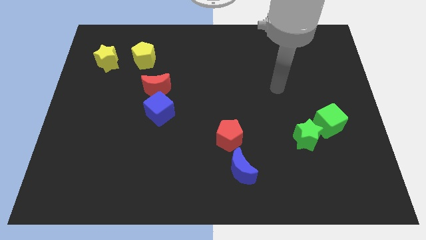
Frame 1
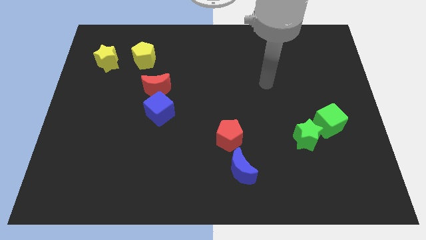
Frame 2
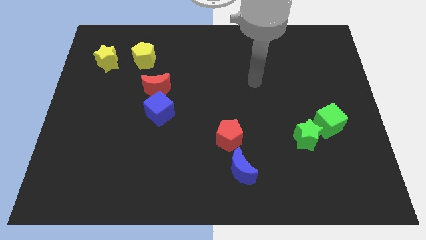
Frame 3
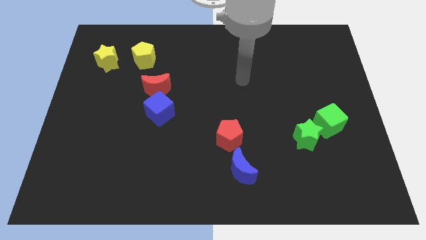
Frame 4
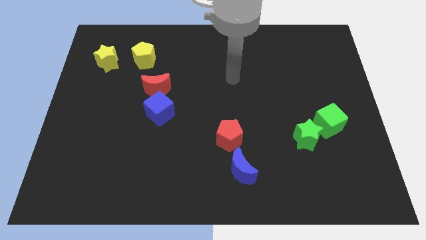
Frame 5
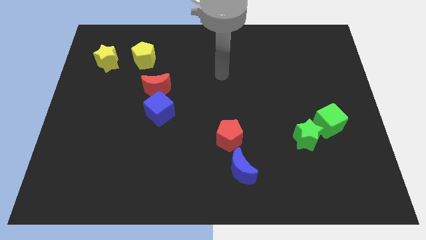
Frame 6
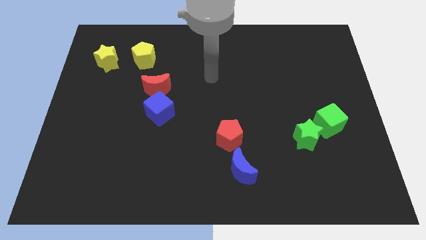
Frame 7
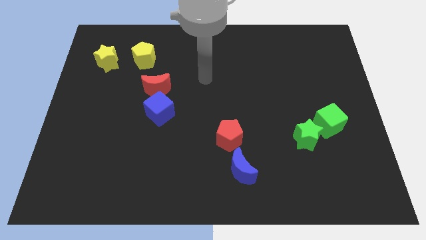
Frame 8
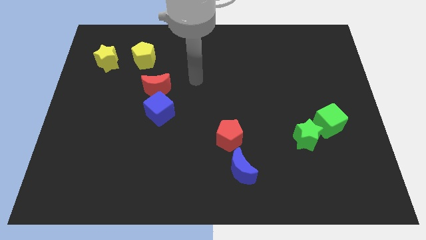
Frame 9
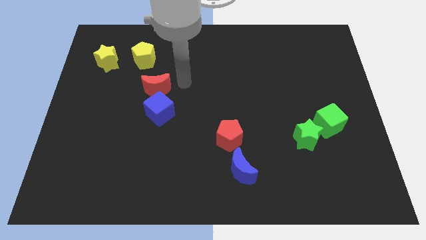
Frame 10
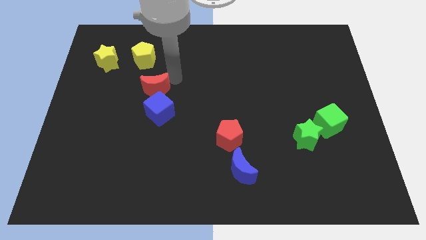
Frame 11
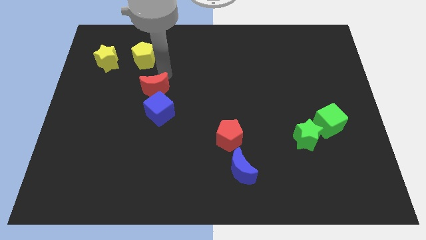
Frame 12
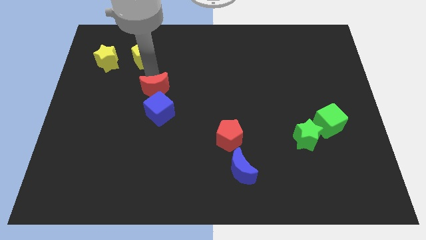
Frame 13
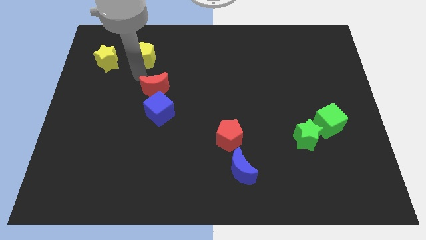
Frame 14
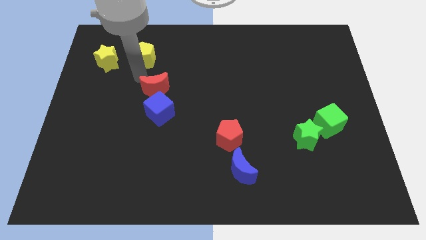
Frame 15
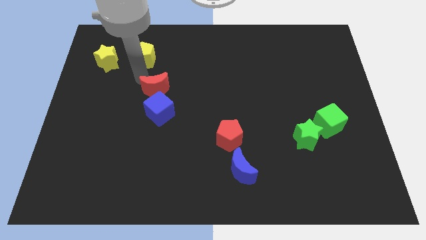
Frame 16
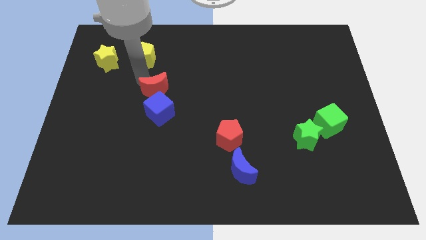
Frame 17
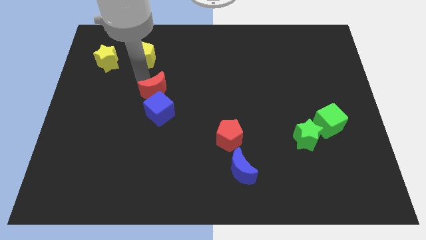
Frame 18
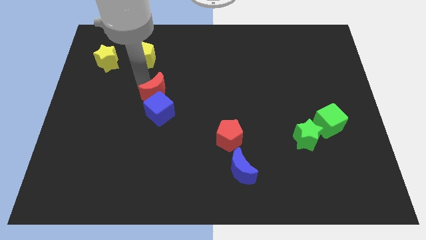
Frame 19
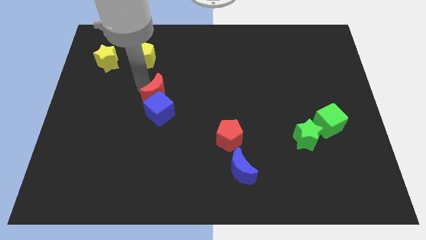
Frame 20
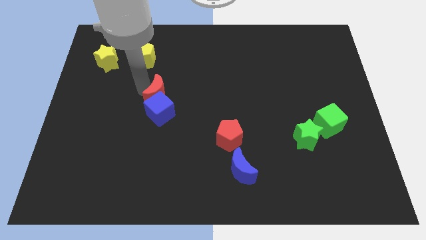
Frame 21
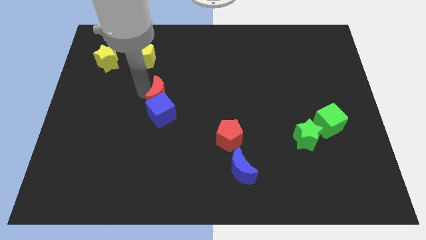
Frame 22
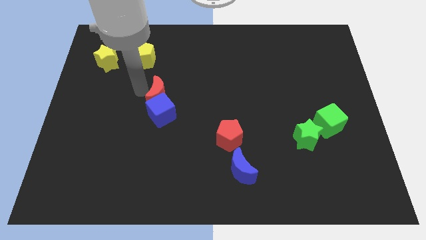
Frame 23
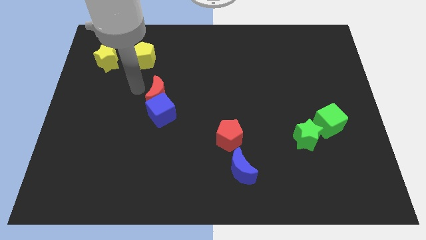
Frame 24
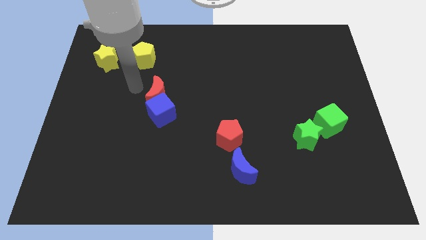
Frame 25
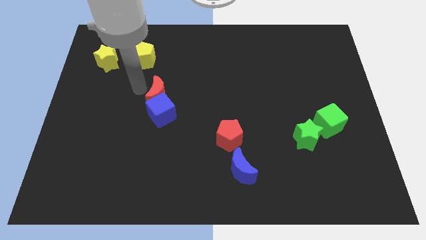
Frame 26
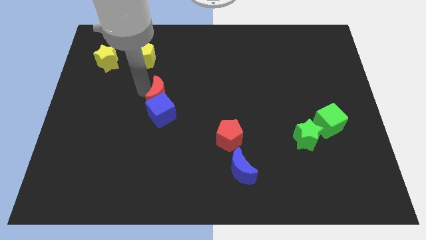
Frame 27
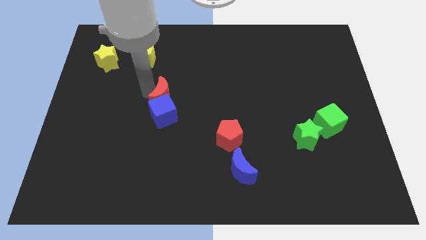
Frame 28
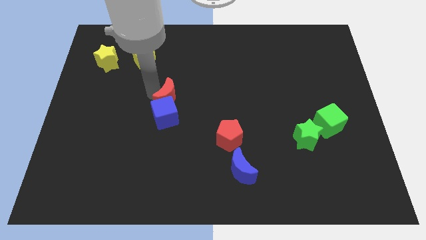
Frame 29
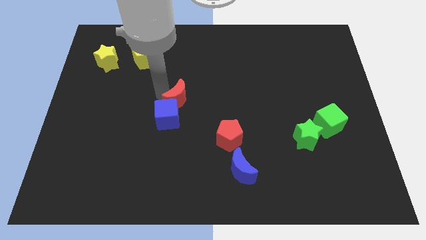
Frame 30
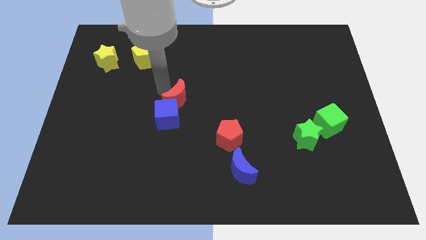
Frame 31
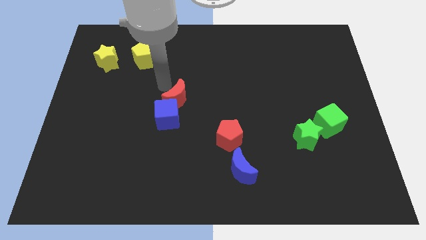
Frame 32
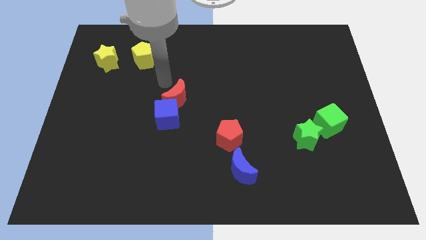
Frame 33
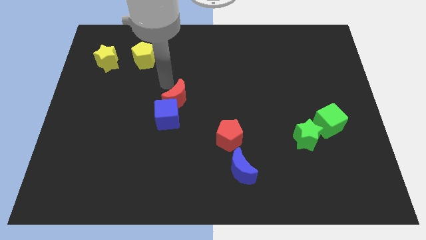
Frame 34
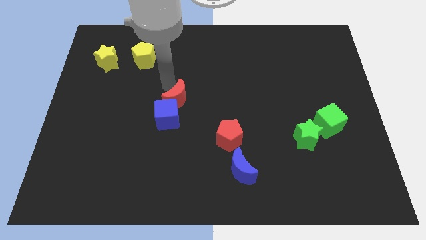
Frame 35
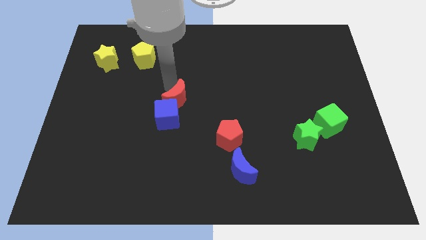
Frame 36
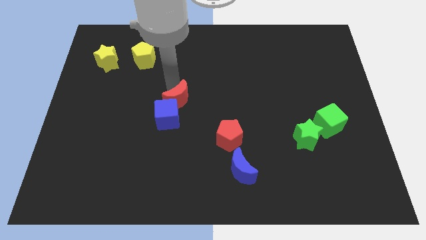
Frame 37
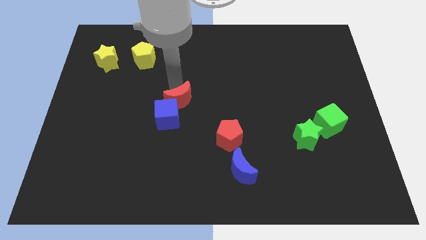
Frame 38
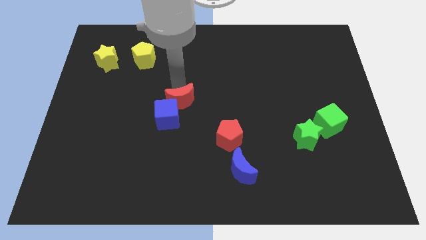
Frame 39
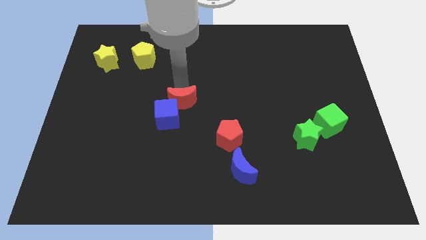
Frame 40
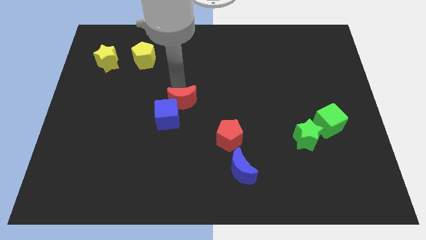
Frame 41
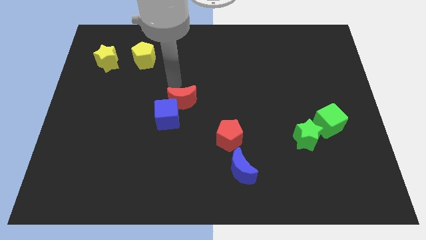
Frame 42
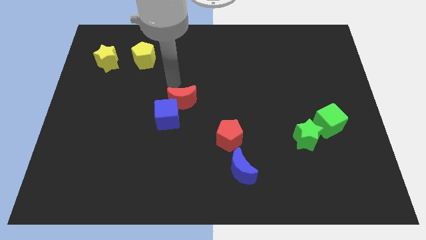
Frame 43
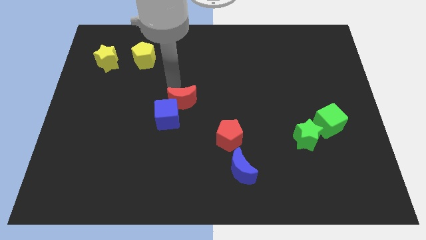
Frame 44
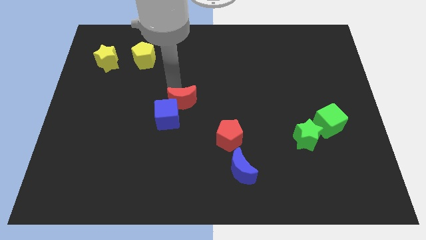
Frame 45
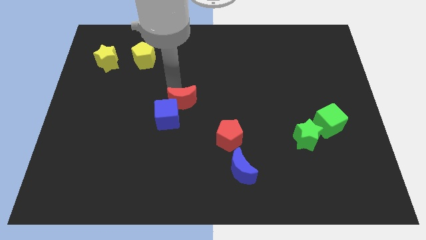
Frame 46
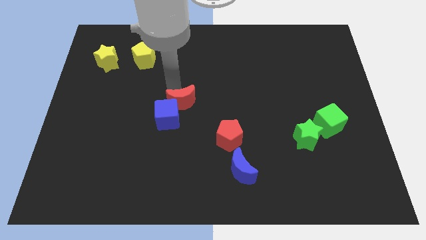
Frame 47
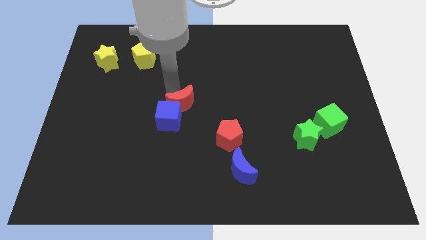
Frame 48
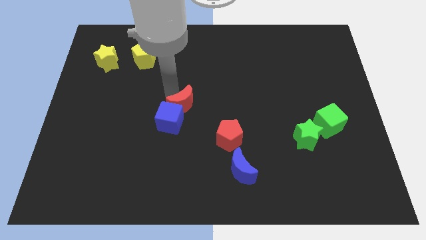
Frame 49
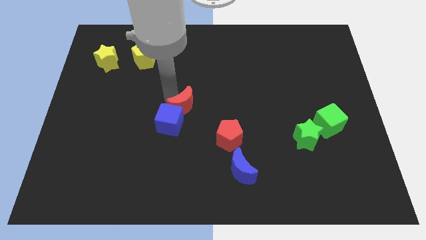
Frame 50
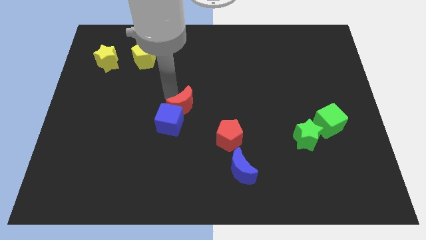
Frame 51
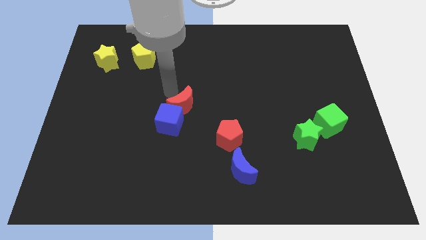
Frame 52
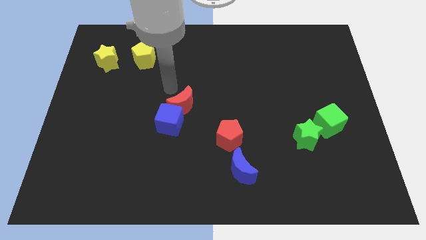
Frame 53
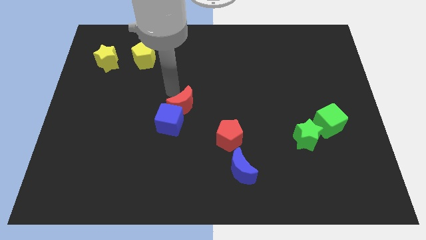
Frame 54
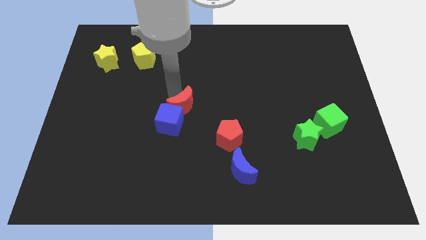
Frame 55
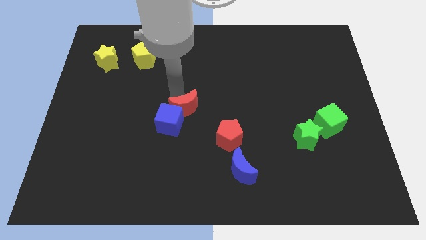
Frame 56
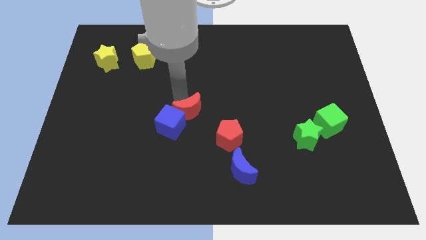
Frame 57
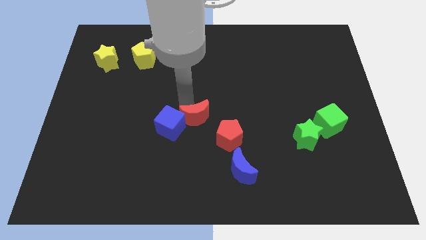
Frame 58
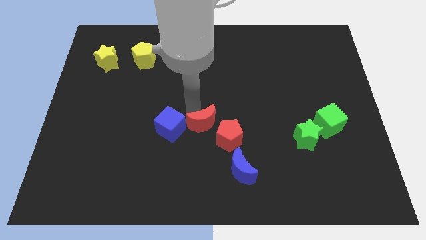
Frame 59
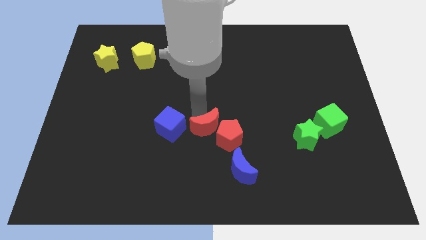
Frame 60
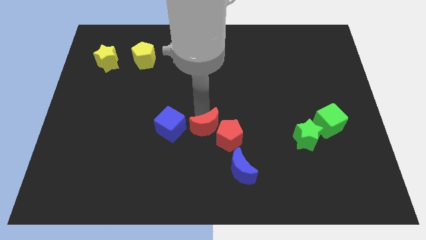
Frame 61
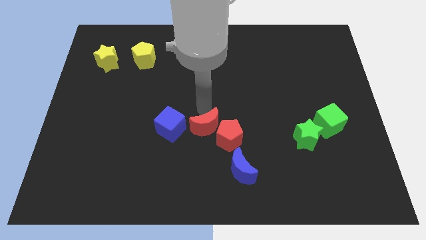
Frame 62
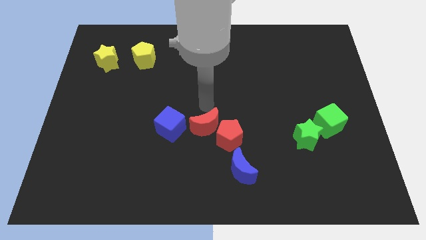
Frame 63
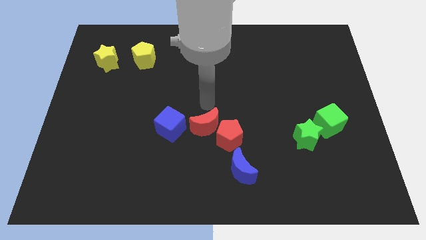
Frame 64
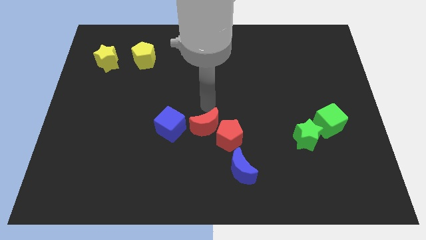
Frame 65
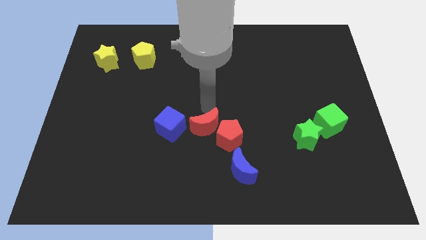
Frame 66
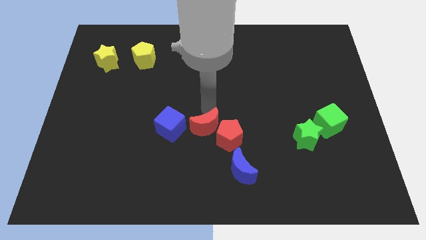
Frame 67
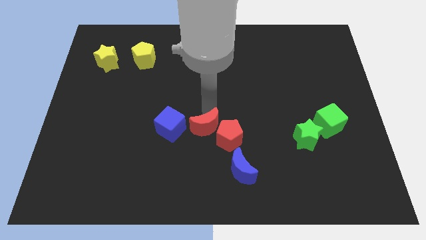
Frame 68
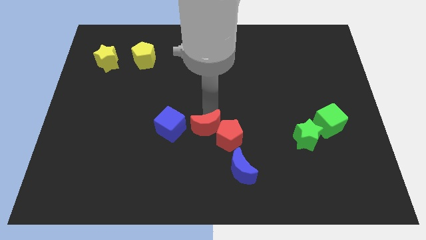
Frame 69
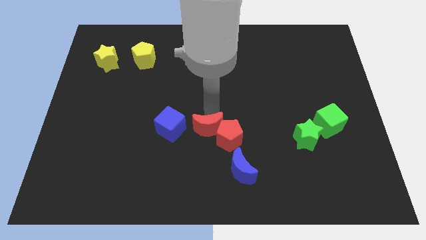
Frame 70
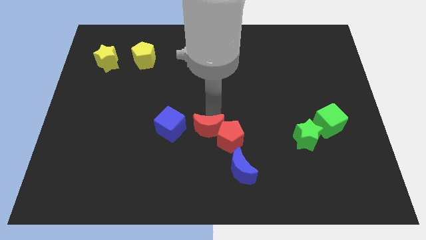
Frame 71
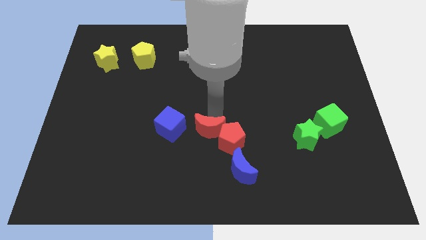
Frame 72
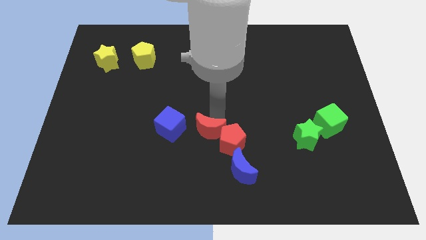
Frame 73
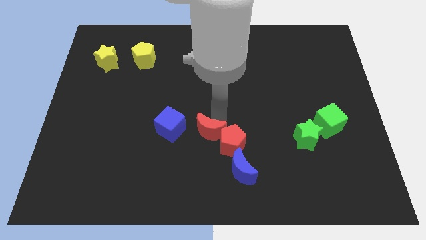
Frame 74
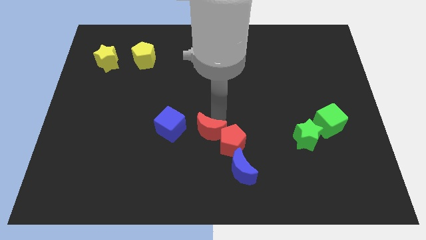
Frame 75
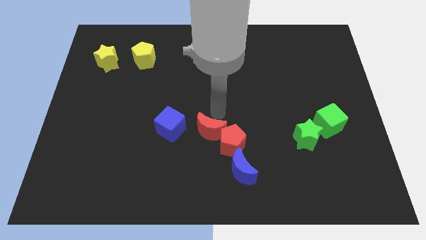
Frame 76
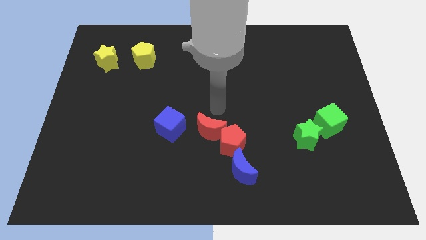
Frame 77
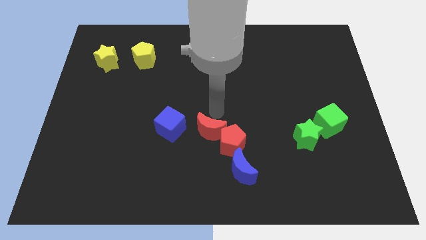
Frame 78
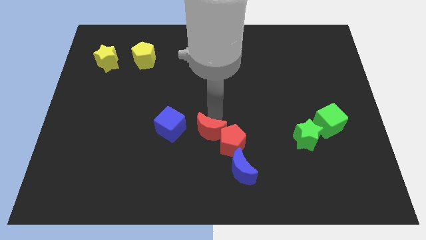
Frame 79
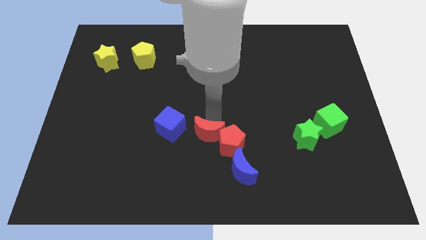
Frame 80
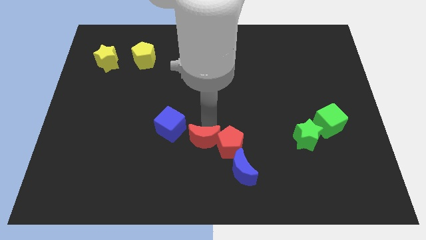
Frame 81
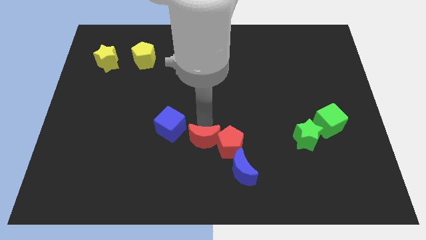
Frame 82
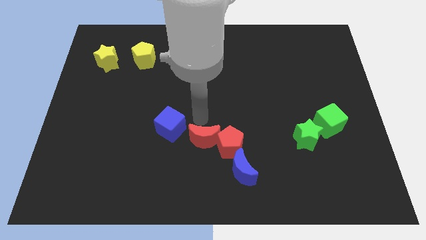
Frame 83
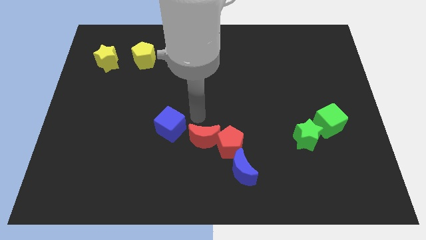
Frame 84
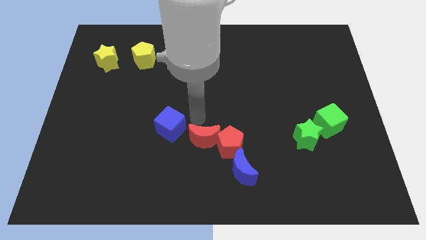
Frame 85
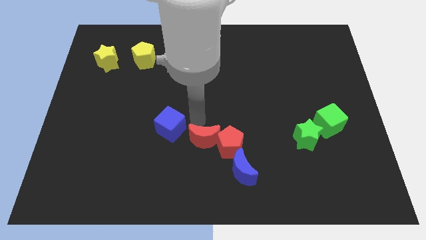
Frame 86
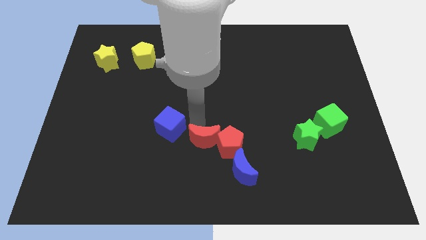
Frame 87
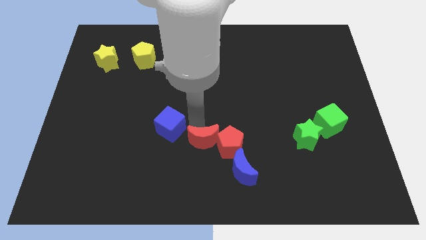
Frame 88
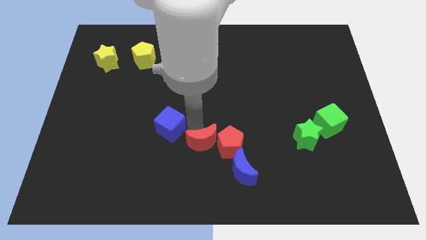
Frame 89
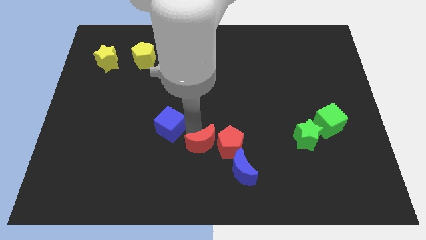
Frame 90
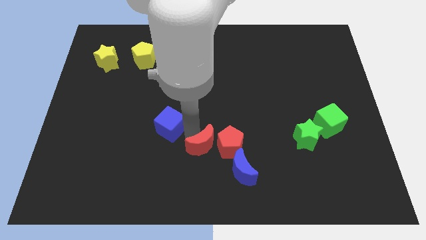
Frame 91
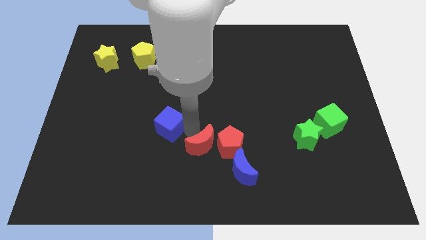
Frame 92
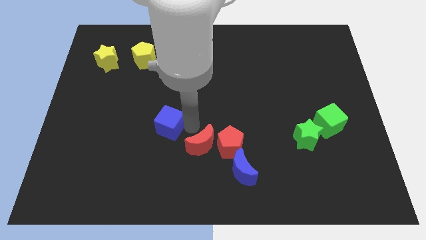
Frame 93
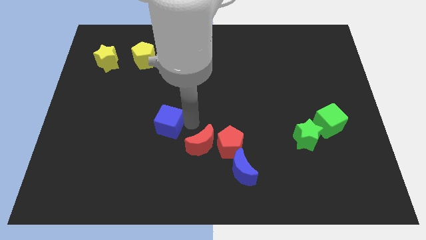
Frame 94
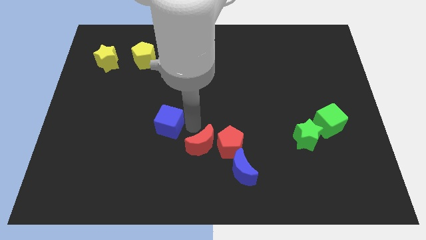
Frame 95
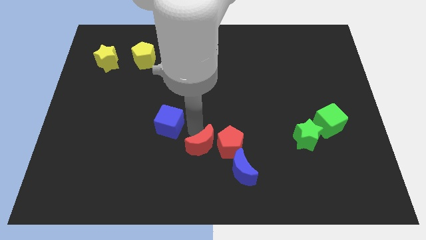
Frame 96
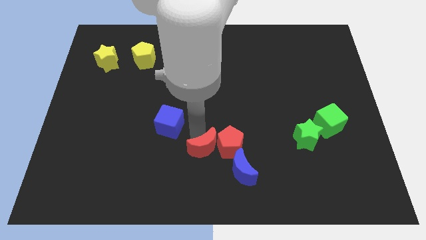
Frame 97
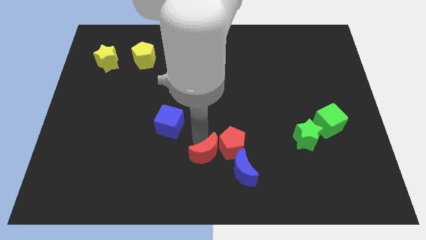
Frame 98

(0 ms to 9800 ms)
push the red moon to the bottom
